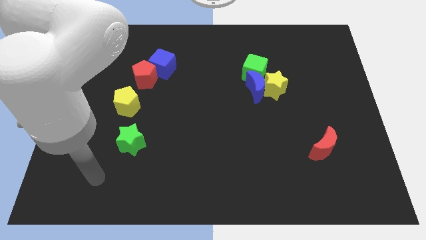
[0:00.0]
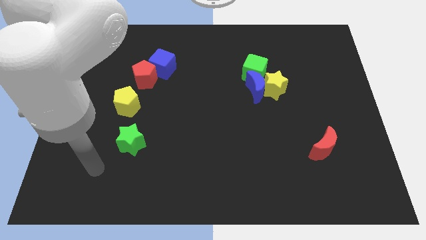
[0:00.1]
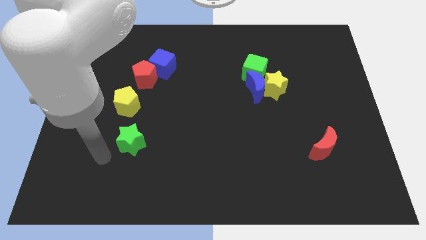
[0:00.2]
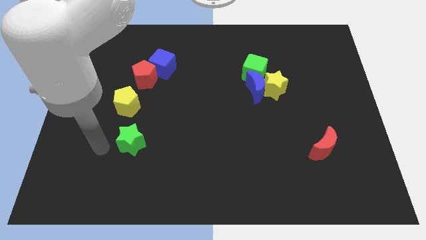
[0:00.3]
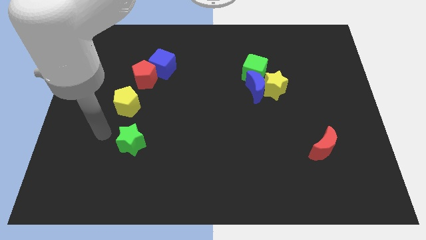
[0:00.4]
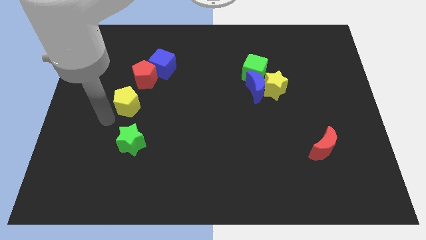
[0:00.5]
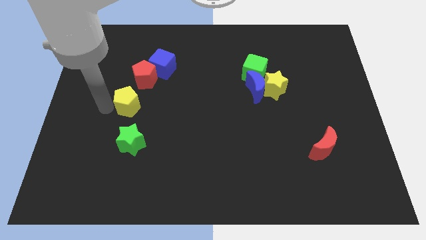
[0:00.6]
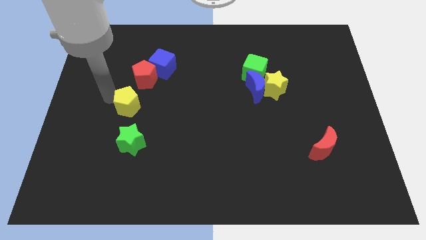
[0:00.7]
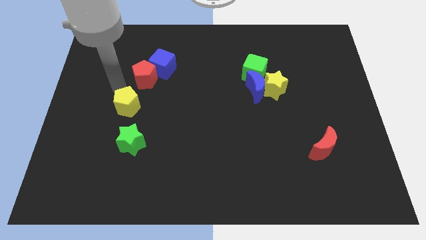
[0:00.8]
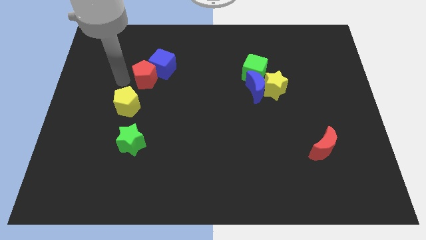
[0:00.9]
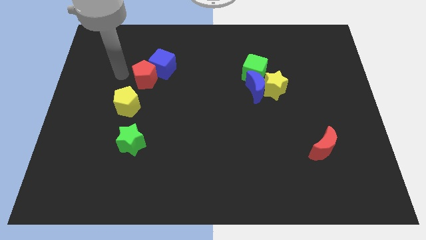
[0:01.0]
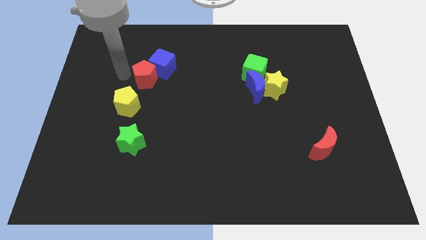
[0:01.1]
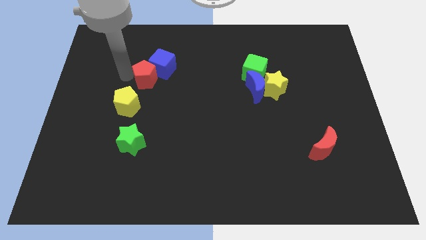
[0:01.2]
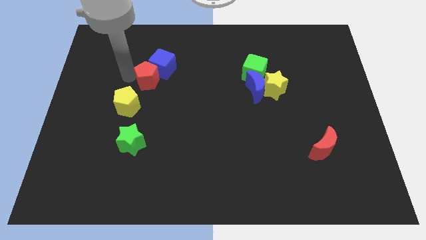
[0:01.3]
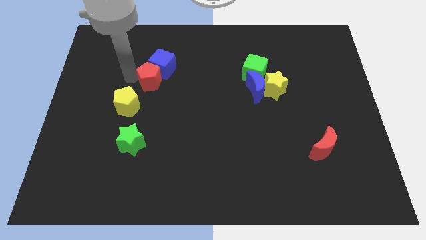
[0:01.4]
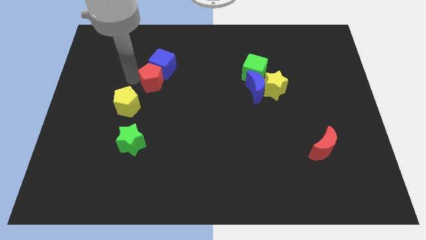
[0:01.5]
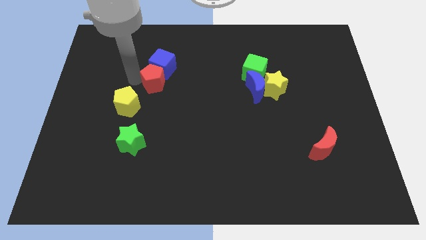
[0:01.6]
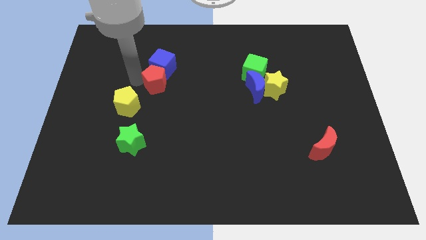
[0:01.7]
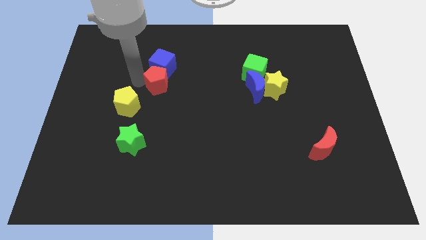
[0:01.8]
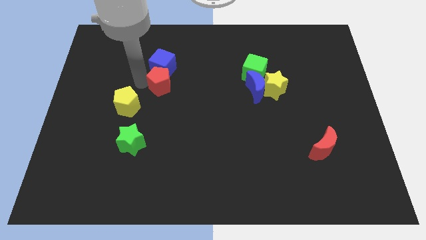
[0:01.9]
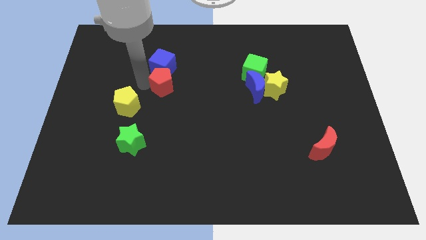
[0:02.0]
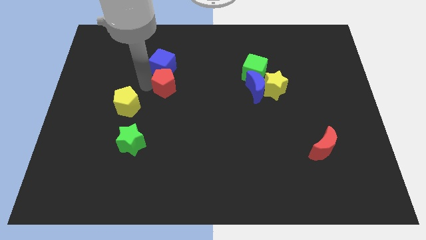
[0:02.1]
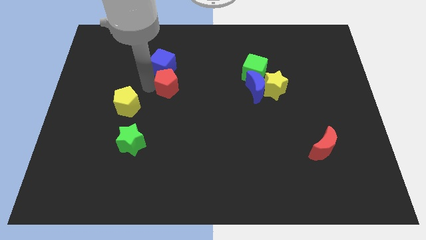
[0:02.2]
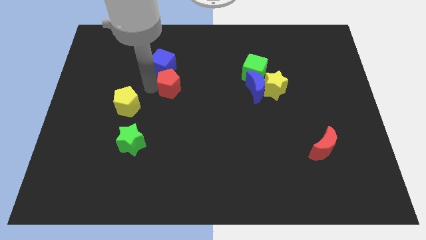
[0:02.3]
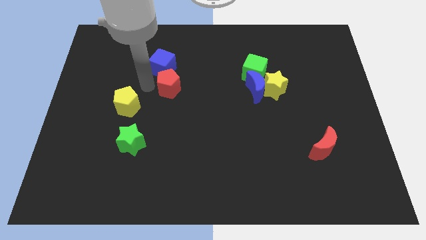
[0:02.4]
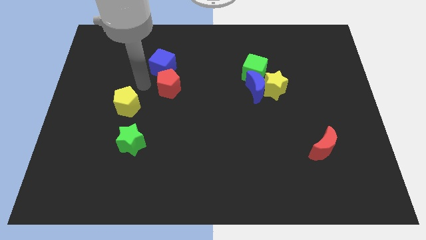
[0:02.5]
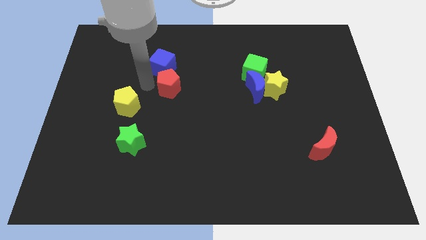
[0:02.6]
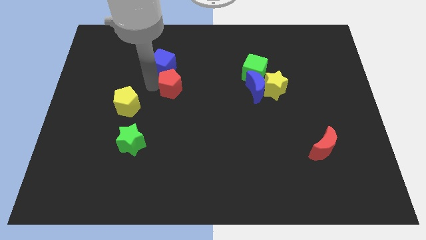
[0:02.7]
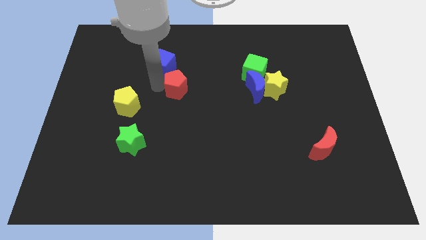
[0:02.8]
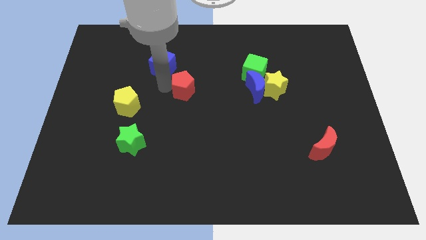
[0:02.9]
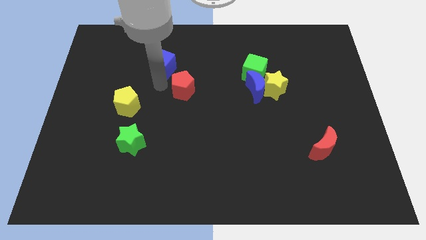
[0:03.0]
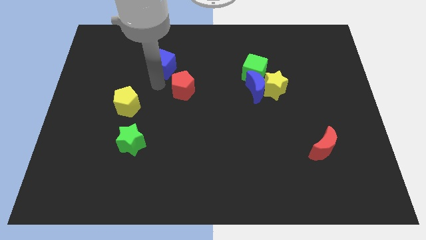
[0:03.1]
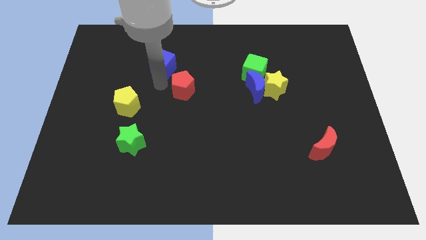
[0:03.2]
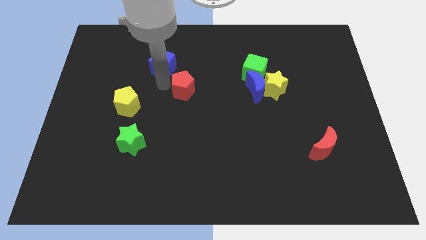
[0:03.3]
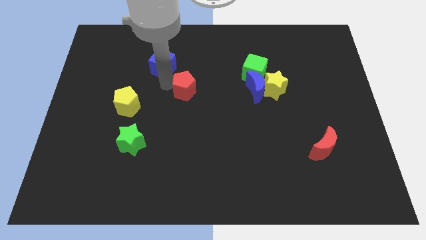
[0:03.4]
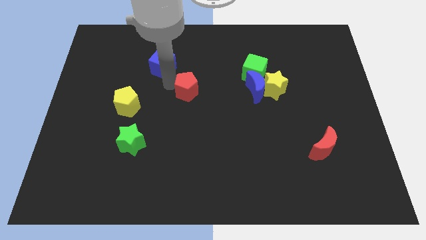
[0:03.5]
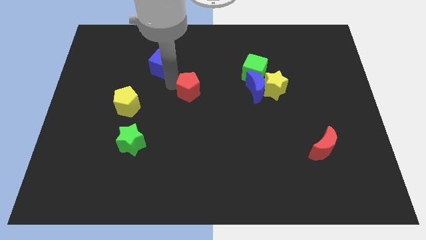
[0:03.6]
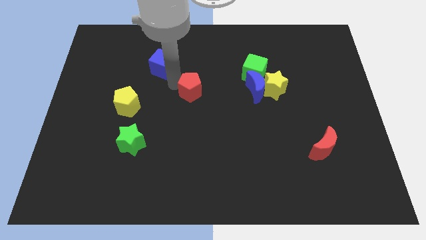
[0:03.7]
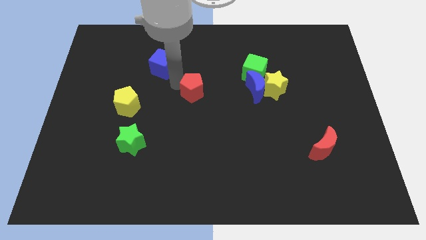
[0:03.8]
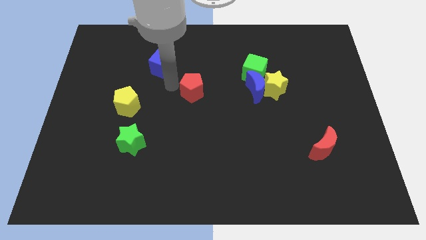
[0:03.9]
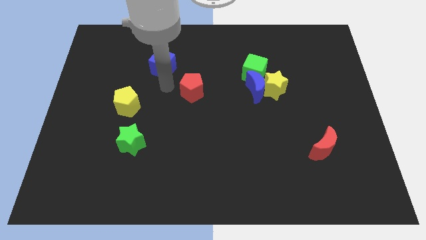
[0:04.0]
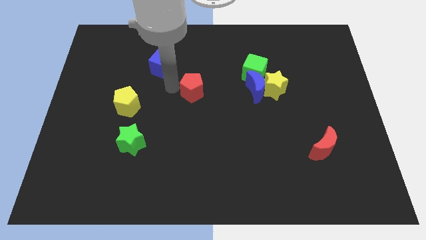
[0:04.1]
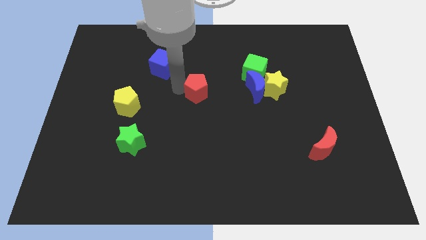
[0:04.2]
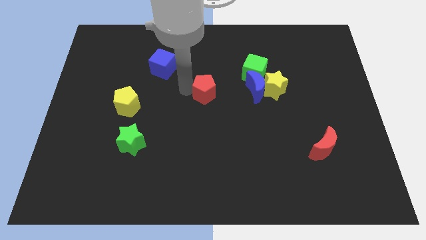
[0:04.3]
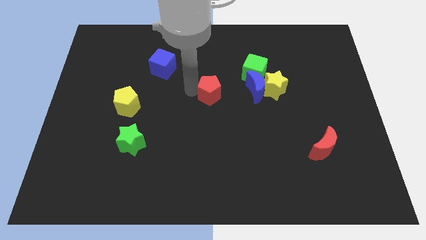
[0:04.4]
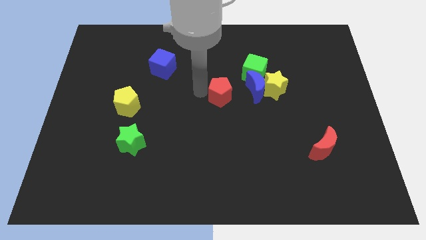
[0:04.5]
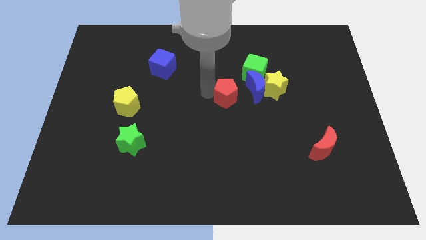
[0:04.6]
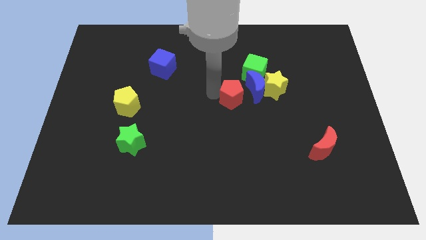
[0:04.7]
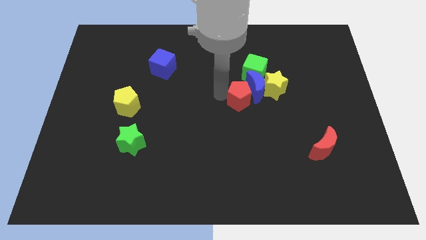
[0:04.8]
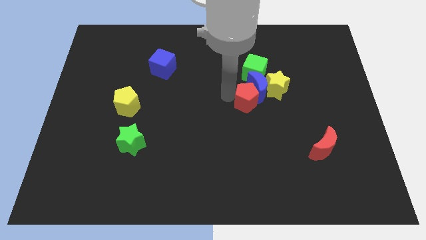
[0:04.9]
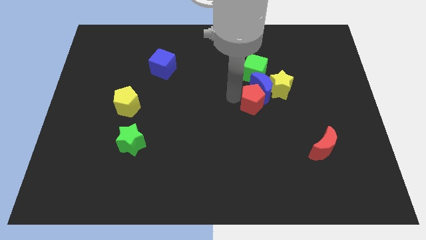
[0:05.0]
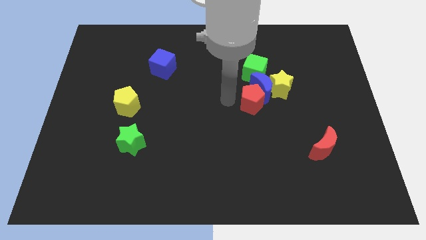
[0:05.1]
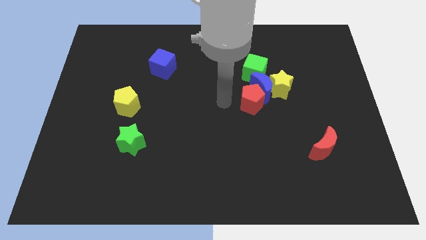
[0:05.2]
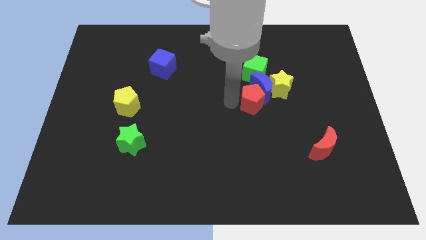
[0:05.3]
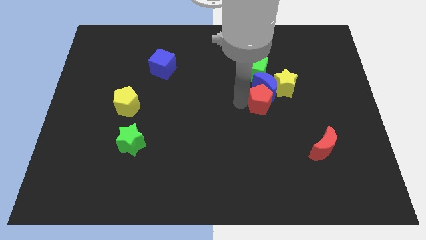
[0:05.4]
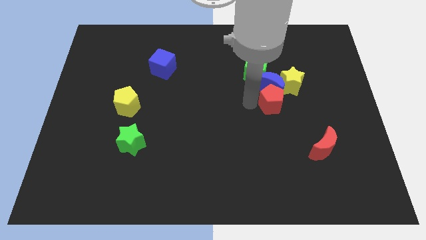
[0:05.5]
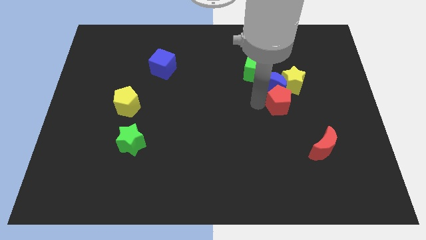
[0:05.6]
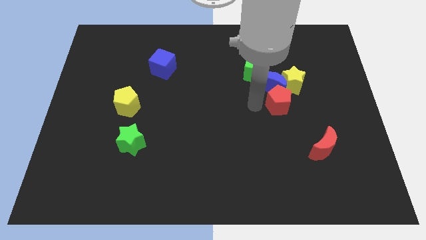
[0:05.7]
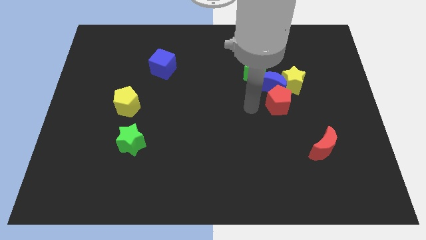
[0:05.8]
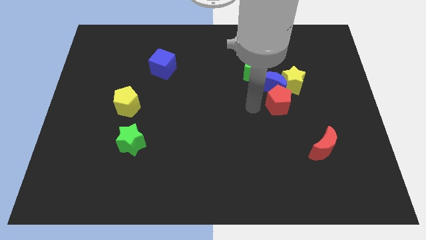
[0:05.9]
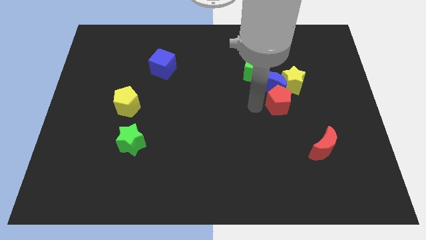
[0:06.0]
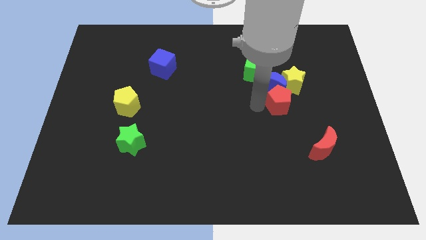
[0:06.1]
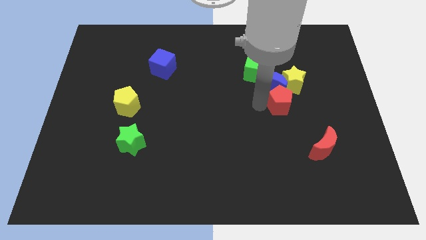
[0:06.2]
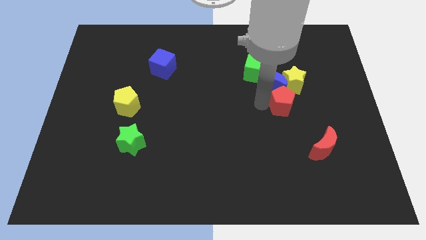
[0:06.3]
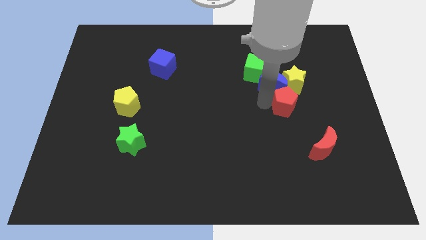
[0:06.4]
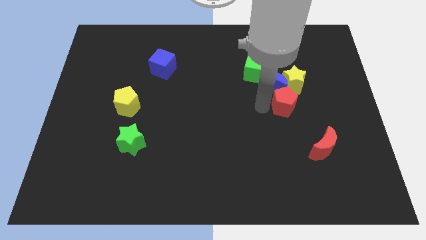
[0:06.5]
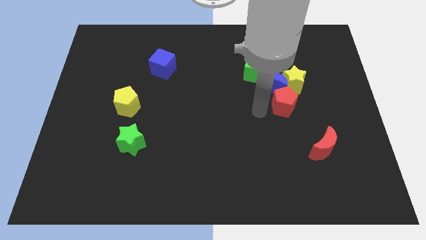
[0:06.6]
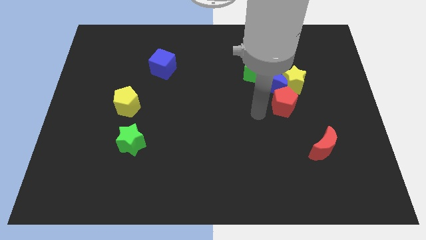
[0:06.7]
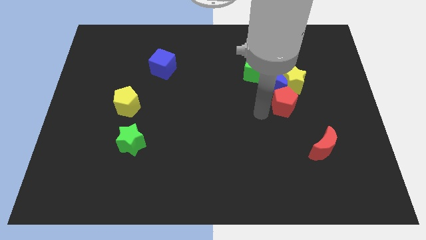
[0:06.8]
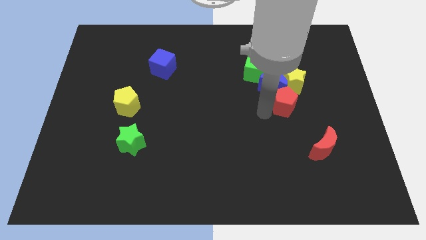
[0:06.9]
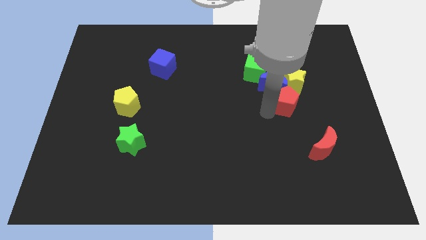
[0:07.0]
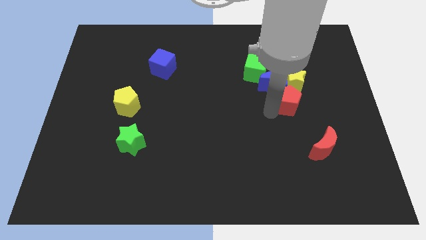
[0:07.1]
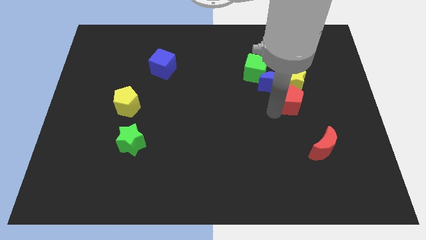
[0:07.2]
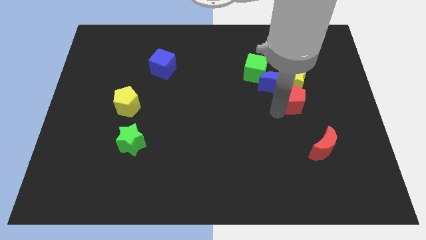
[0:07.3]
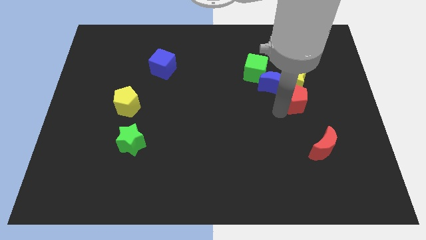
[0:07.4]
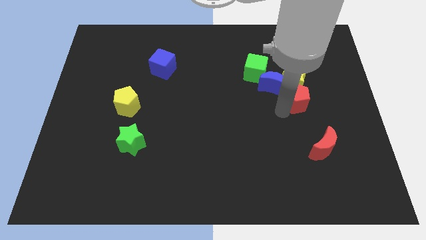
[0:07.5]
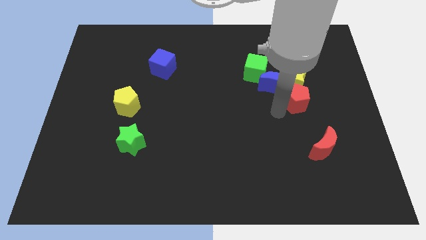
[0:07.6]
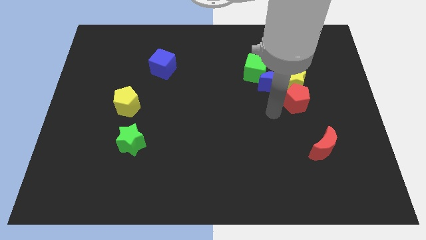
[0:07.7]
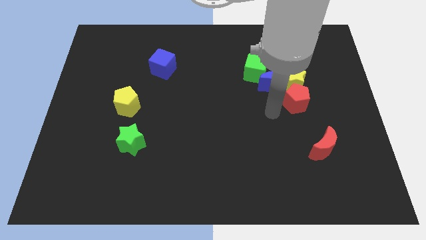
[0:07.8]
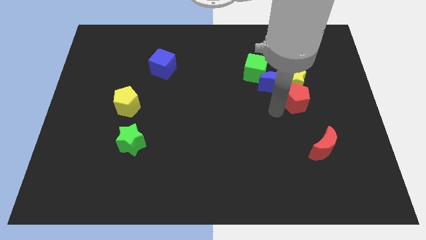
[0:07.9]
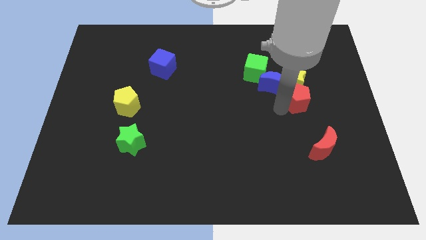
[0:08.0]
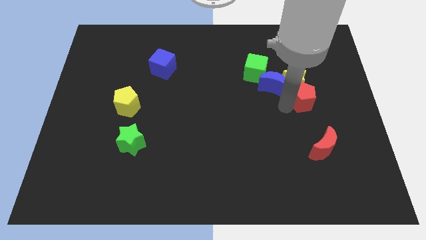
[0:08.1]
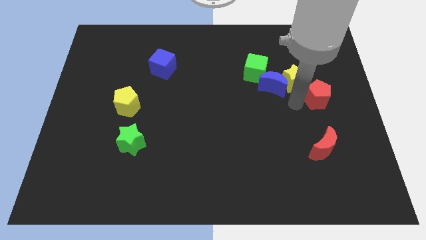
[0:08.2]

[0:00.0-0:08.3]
push the red pentagon right of the yellow star
